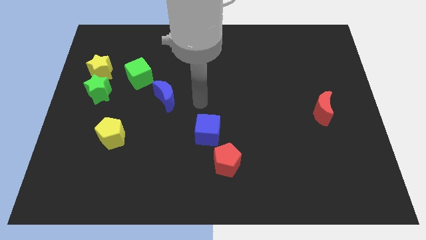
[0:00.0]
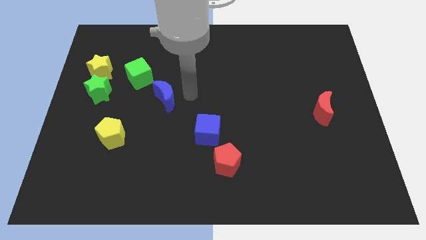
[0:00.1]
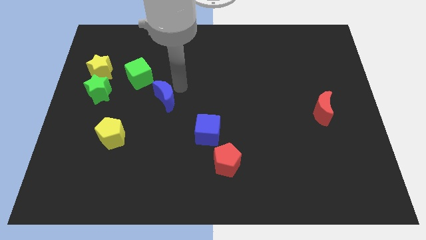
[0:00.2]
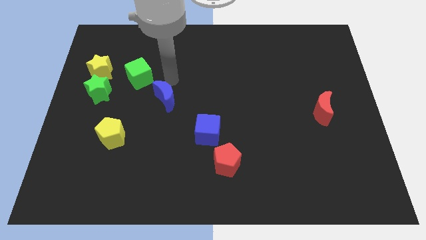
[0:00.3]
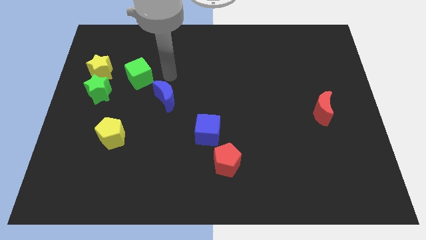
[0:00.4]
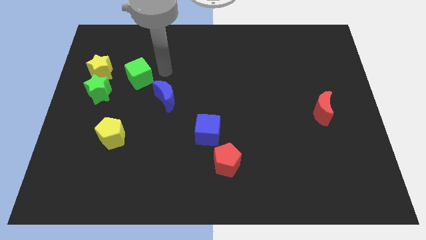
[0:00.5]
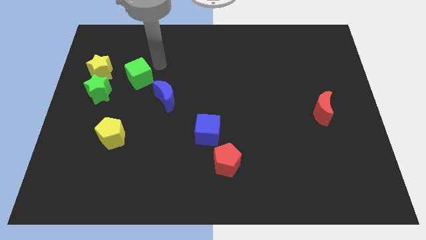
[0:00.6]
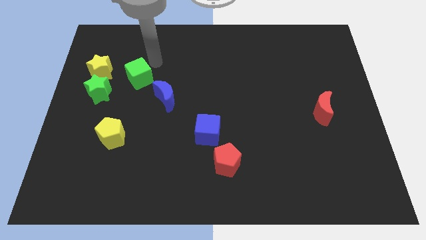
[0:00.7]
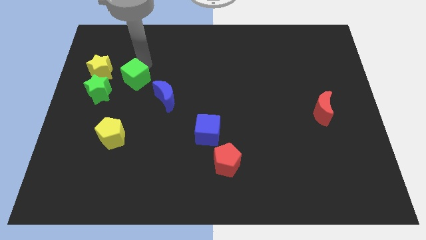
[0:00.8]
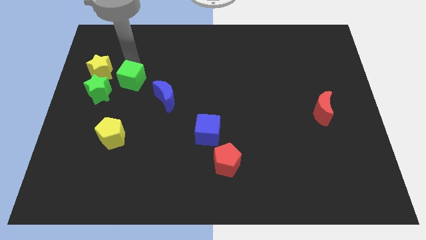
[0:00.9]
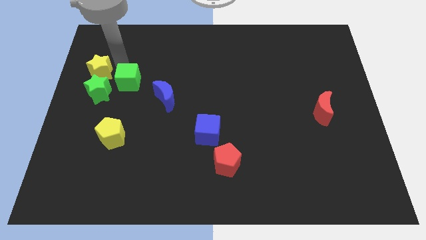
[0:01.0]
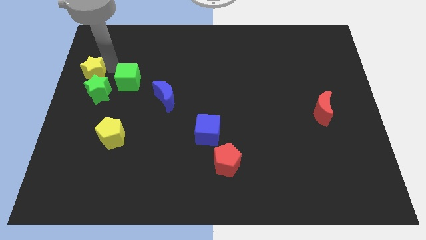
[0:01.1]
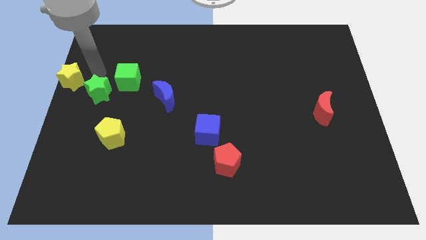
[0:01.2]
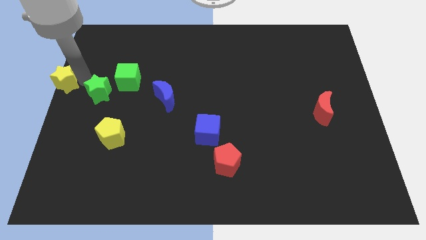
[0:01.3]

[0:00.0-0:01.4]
move the green star away from the yellow star

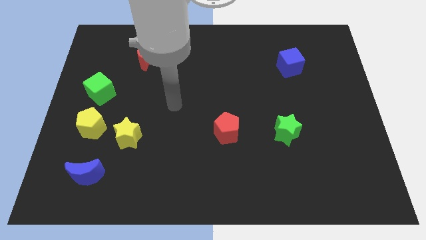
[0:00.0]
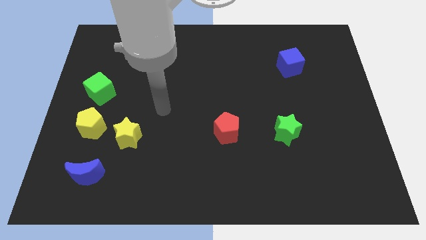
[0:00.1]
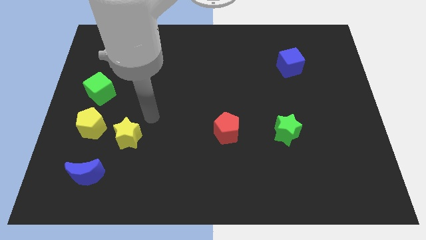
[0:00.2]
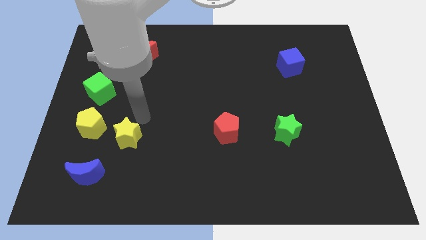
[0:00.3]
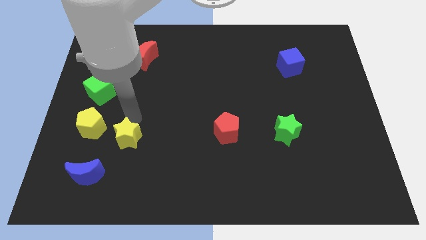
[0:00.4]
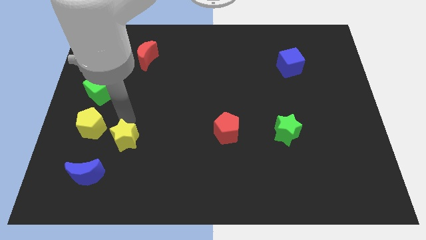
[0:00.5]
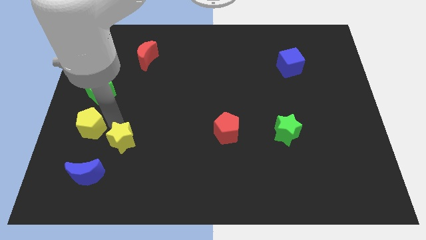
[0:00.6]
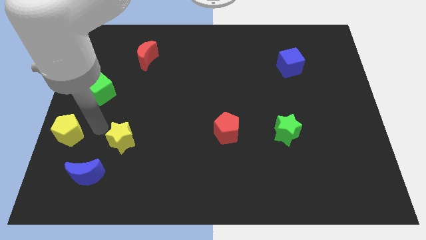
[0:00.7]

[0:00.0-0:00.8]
pull the yellow star apart from the yellow pentagon

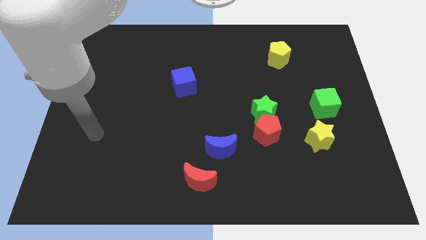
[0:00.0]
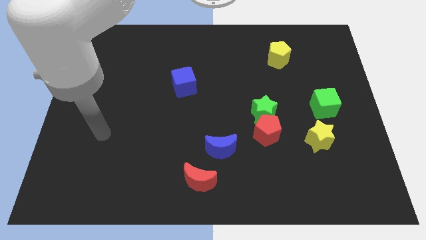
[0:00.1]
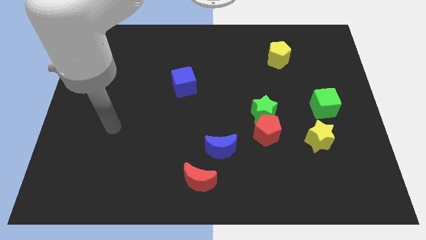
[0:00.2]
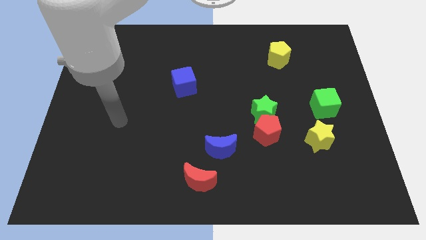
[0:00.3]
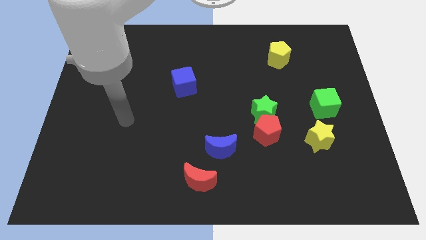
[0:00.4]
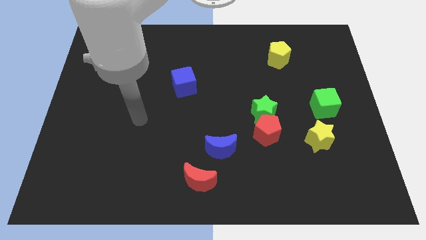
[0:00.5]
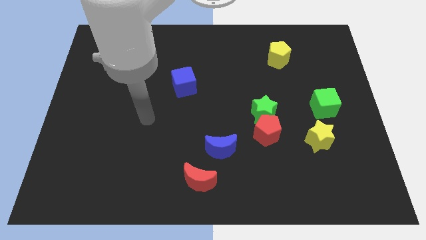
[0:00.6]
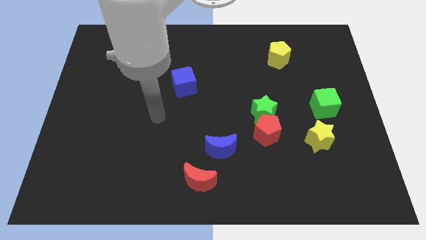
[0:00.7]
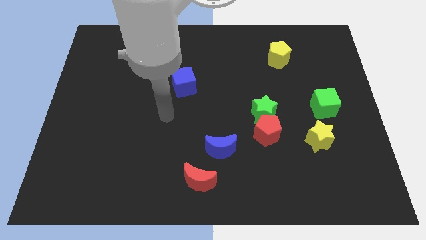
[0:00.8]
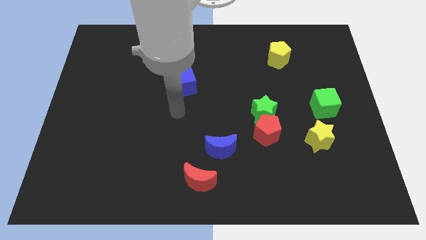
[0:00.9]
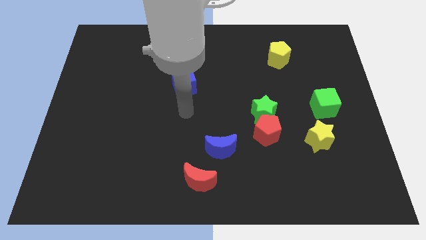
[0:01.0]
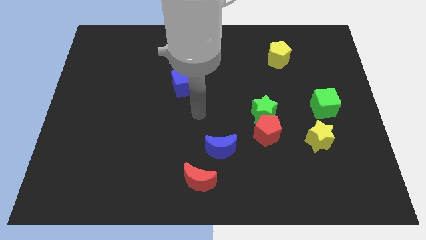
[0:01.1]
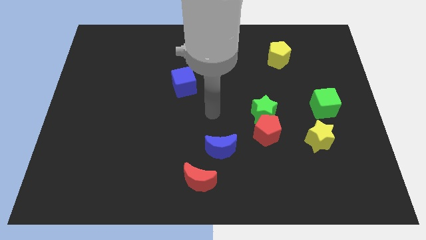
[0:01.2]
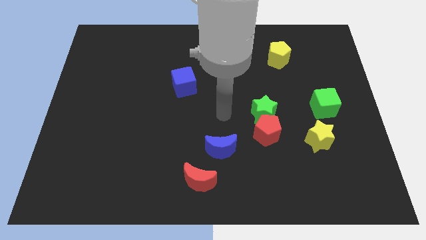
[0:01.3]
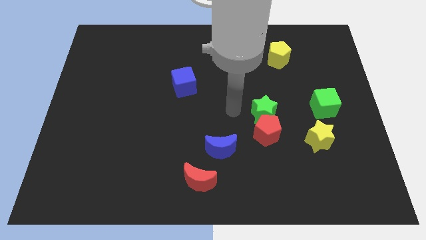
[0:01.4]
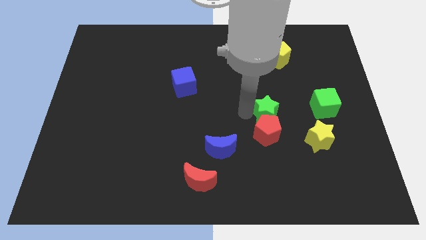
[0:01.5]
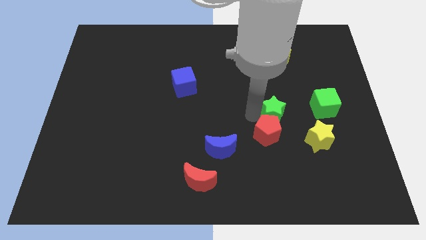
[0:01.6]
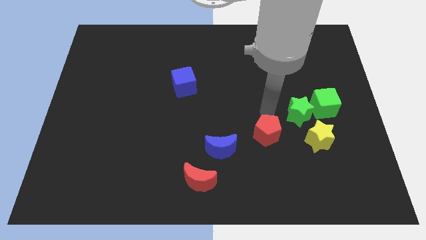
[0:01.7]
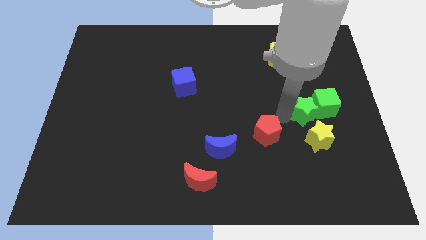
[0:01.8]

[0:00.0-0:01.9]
pull the red pentagon apart from the green star

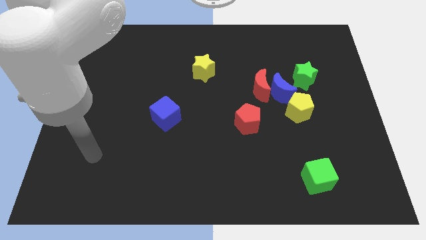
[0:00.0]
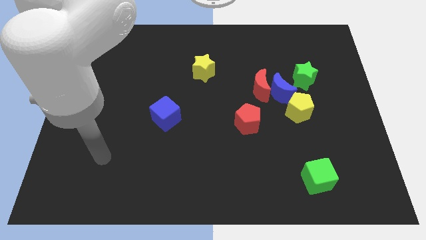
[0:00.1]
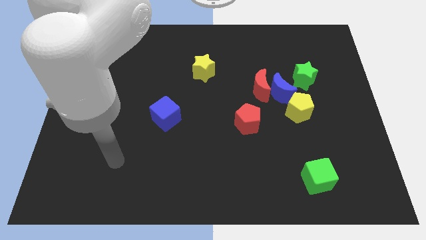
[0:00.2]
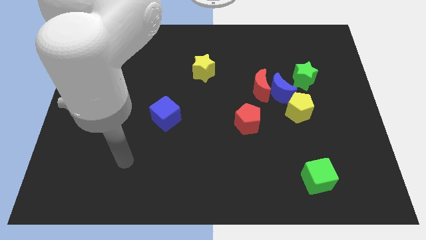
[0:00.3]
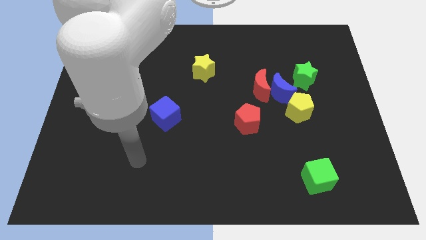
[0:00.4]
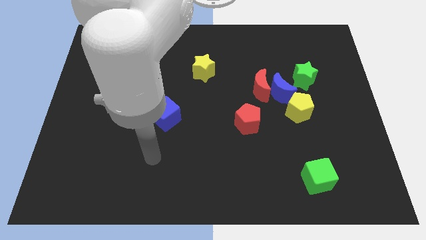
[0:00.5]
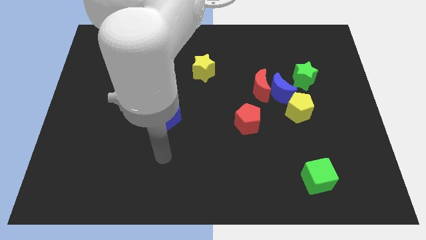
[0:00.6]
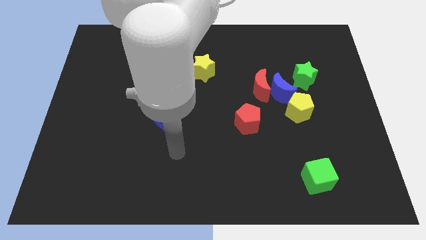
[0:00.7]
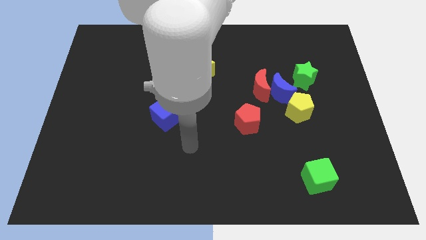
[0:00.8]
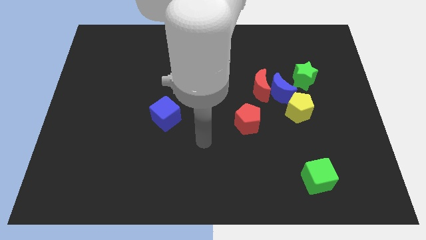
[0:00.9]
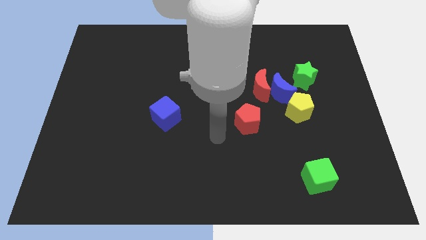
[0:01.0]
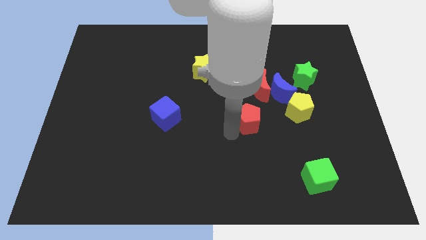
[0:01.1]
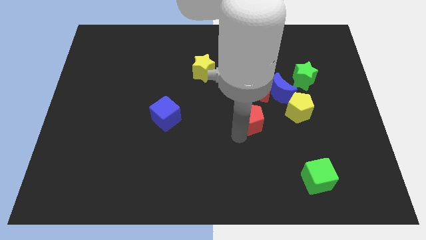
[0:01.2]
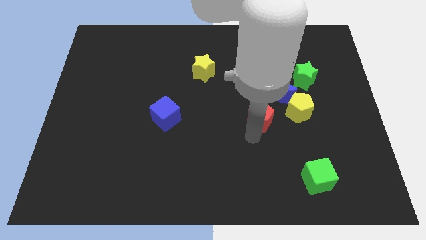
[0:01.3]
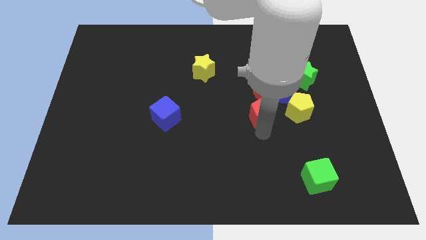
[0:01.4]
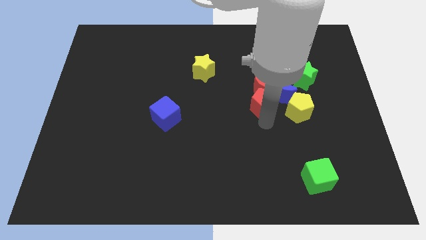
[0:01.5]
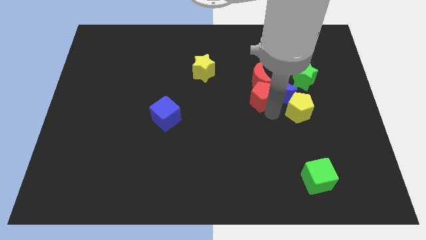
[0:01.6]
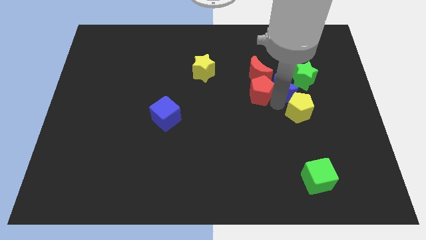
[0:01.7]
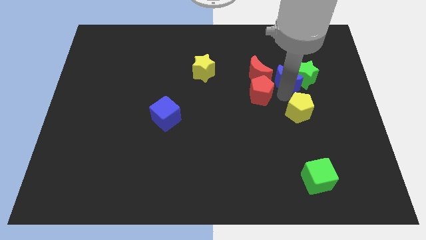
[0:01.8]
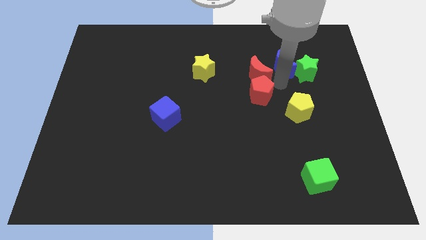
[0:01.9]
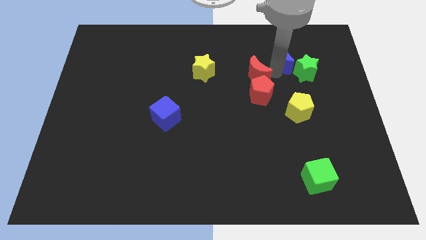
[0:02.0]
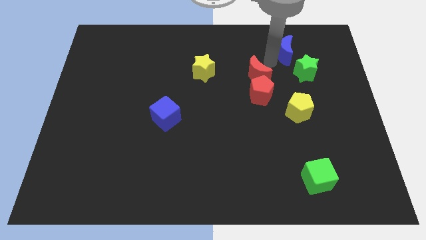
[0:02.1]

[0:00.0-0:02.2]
pull the red moon apart from the blue moon

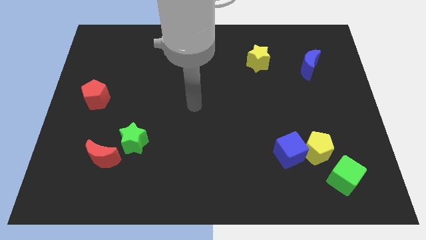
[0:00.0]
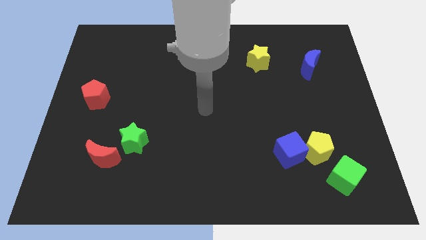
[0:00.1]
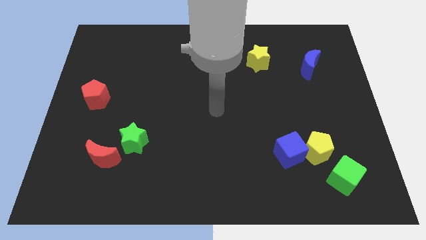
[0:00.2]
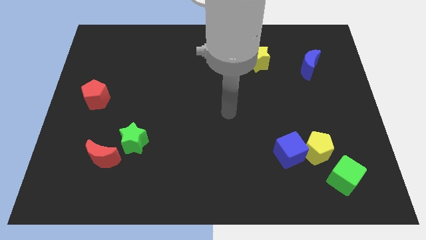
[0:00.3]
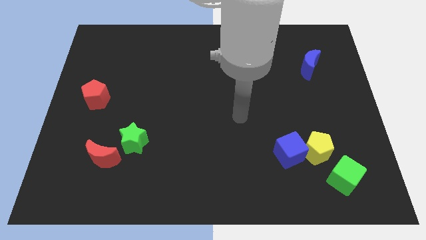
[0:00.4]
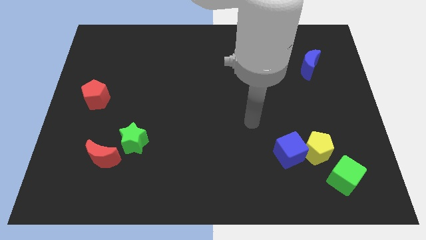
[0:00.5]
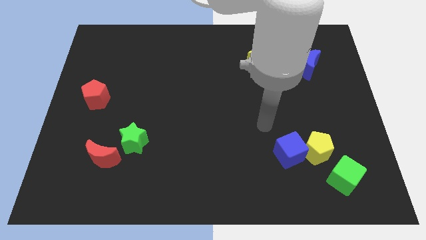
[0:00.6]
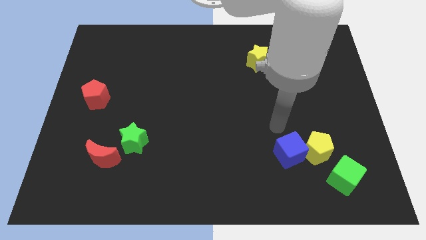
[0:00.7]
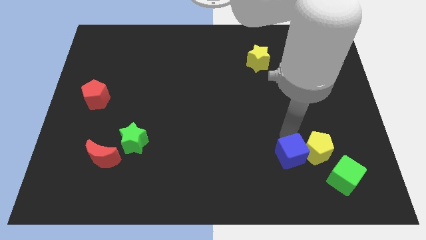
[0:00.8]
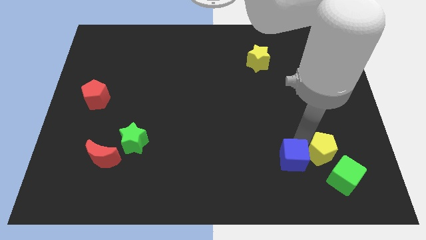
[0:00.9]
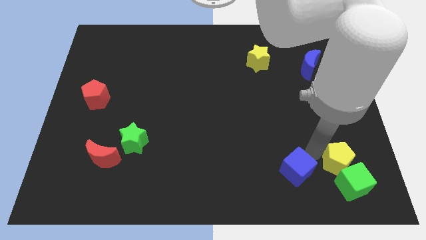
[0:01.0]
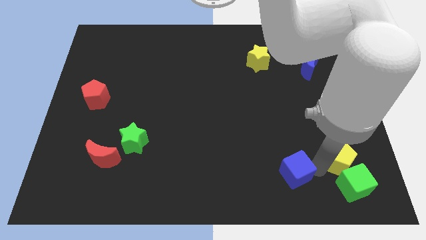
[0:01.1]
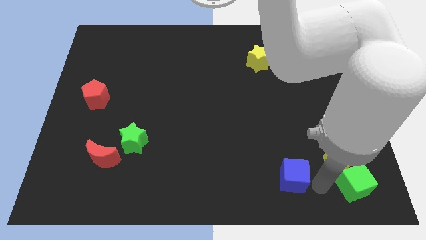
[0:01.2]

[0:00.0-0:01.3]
move the blue cube away from the yellow pentagon

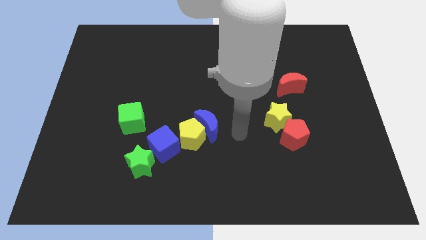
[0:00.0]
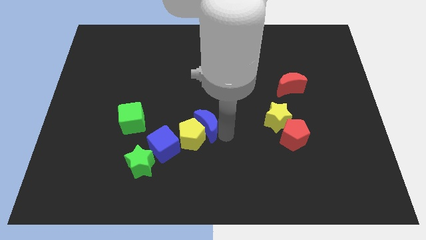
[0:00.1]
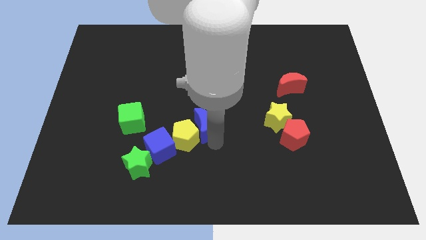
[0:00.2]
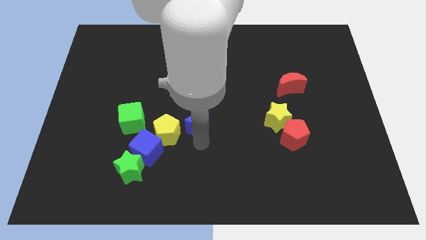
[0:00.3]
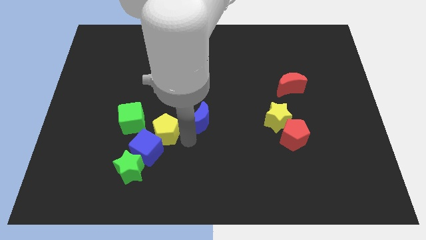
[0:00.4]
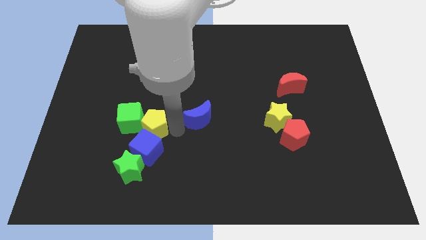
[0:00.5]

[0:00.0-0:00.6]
move the blue moon away from the yellow pentagon

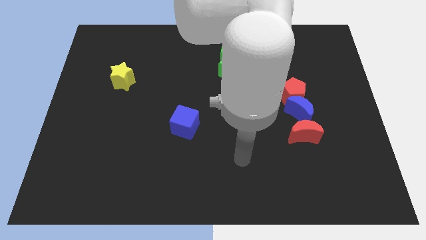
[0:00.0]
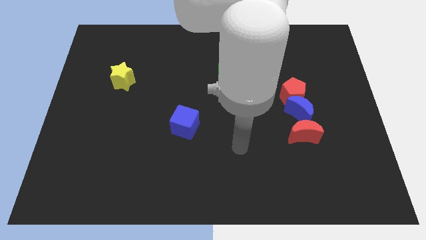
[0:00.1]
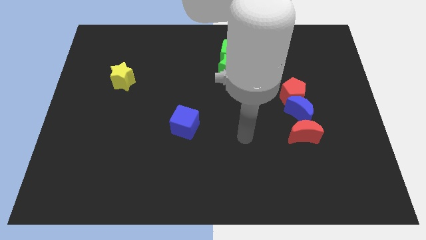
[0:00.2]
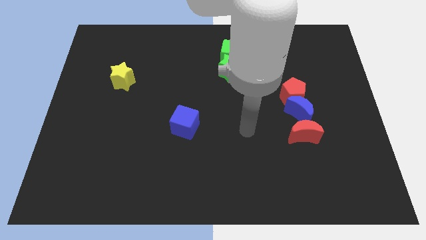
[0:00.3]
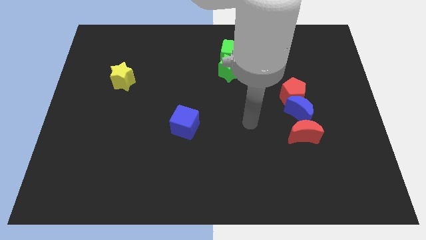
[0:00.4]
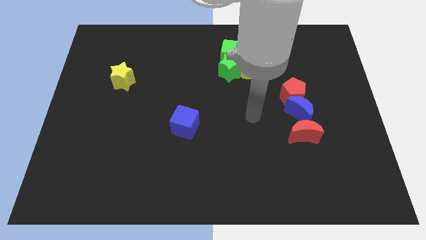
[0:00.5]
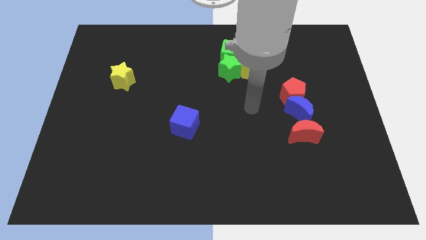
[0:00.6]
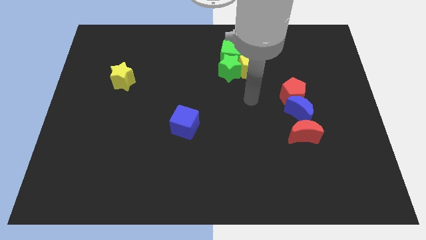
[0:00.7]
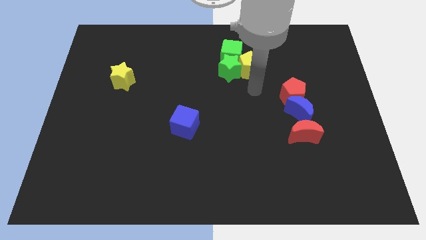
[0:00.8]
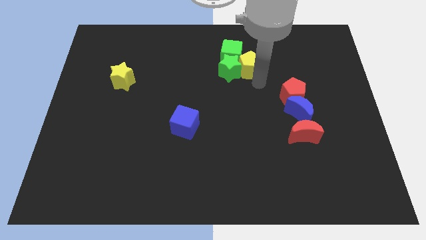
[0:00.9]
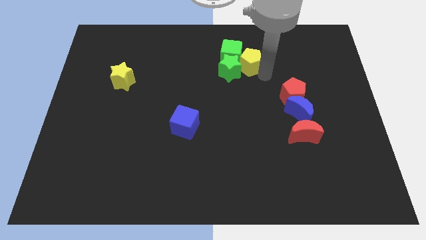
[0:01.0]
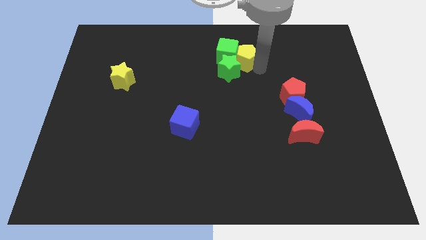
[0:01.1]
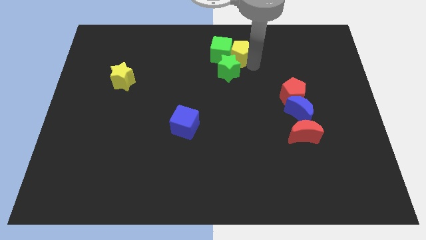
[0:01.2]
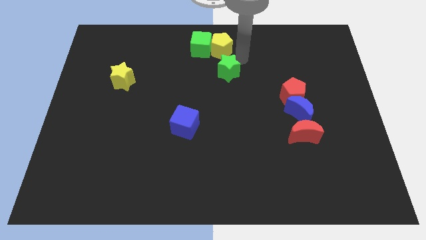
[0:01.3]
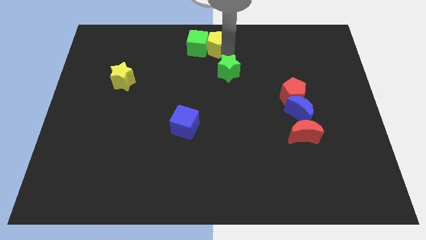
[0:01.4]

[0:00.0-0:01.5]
separate the green star from the yellow pentagon and green cube
